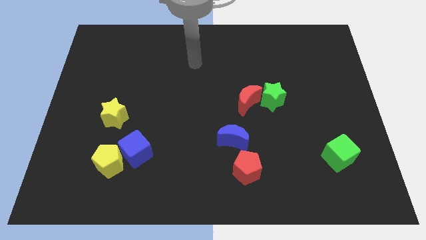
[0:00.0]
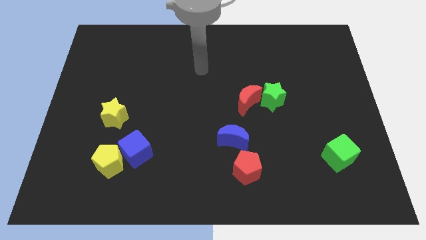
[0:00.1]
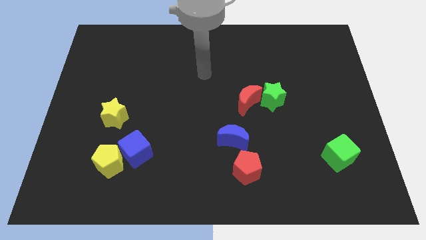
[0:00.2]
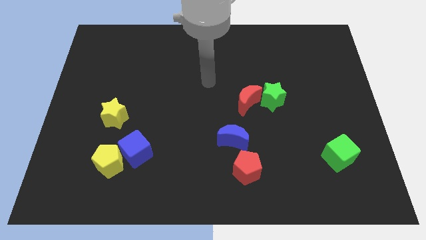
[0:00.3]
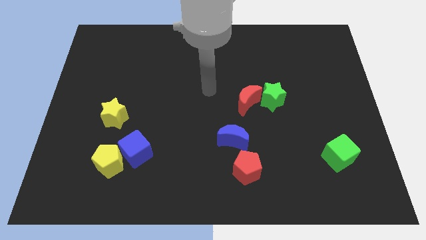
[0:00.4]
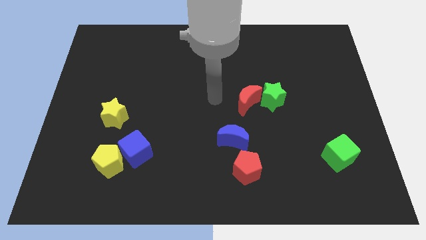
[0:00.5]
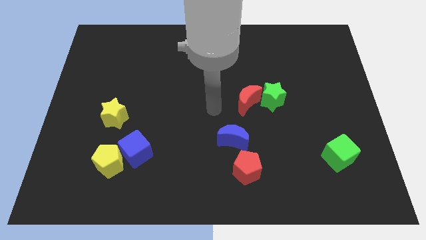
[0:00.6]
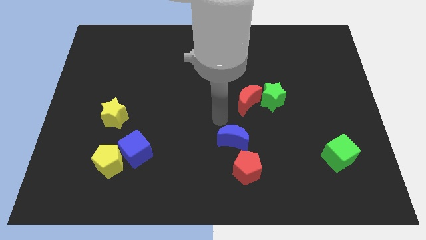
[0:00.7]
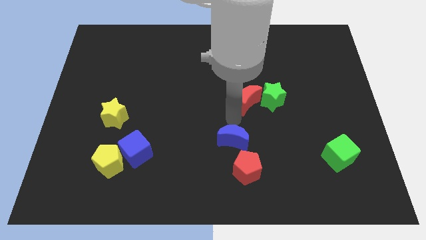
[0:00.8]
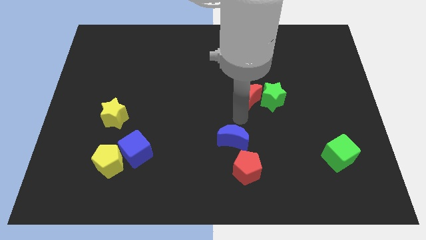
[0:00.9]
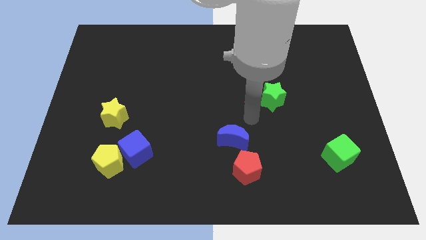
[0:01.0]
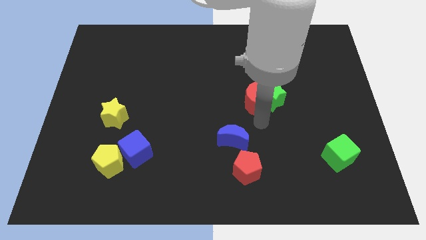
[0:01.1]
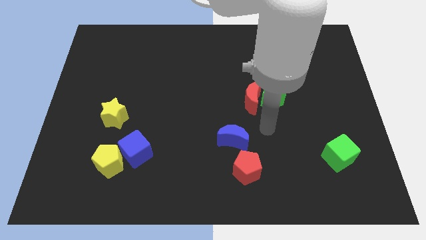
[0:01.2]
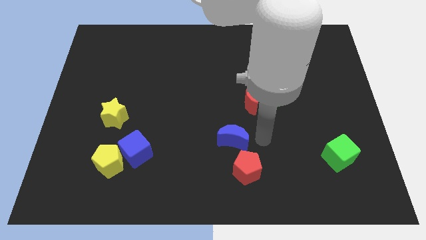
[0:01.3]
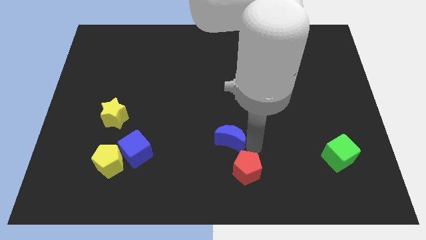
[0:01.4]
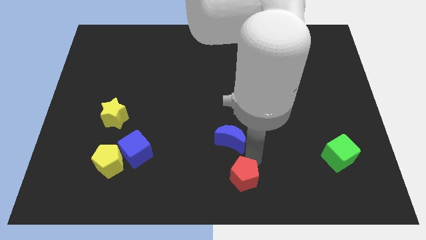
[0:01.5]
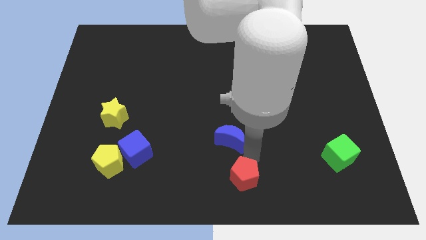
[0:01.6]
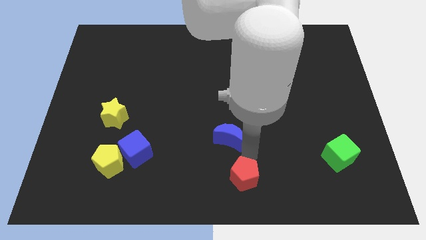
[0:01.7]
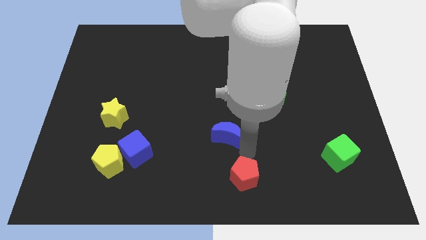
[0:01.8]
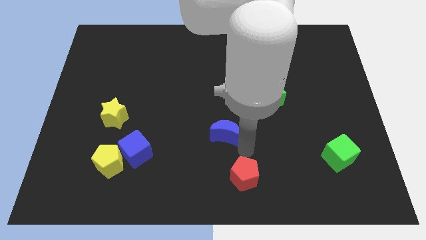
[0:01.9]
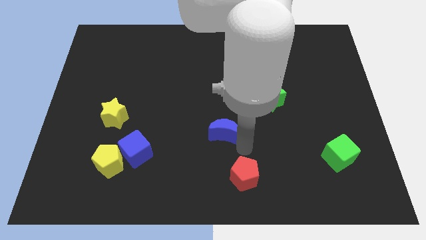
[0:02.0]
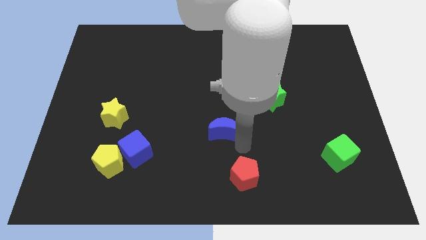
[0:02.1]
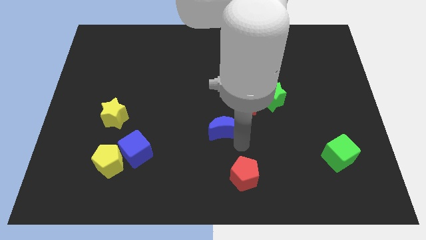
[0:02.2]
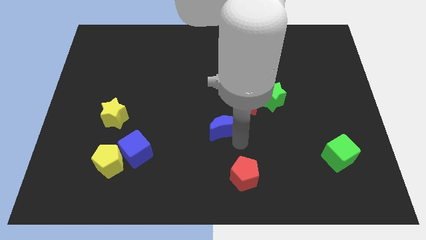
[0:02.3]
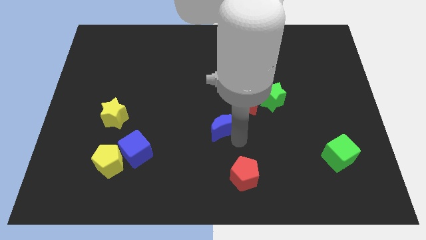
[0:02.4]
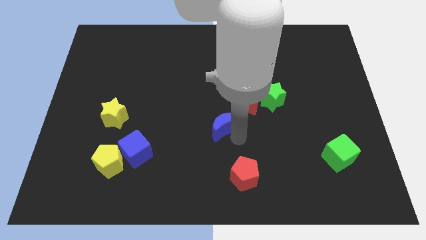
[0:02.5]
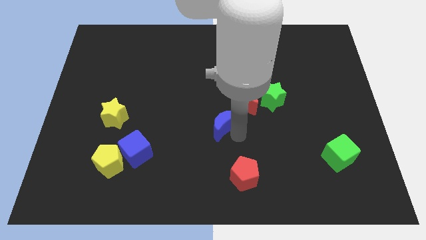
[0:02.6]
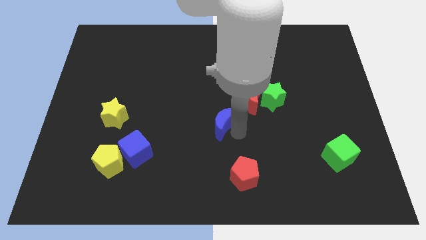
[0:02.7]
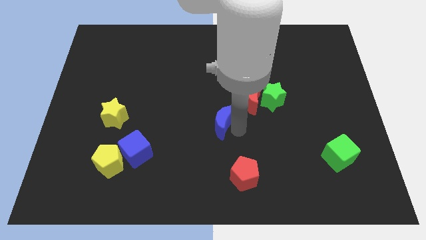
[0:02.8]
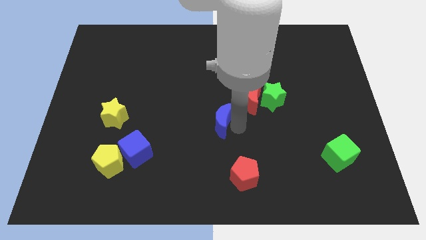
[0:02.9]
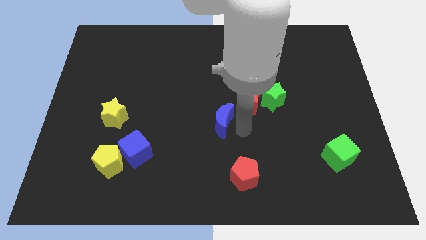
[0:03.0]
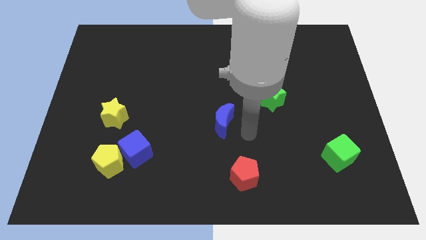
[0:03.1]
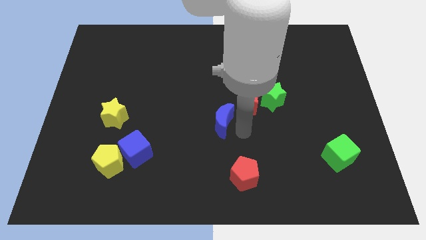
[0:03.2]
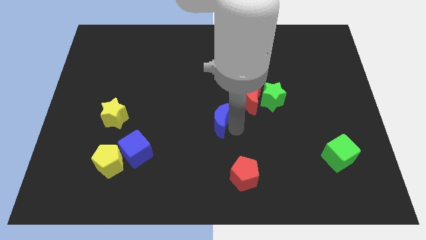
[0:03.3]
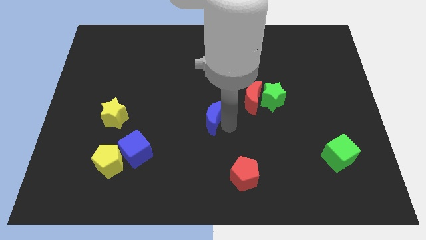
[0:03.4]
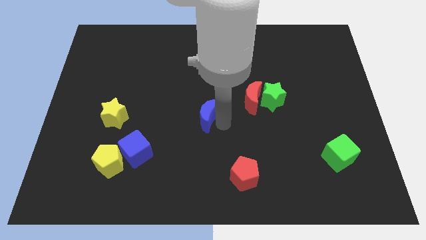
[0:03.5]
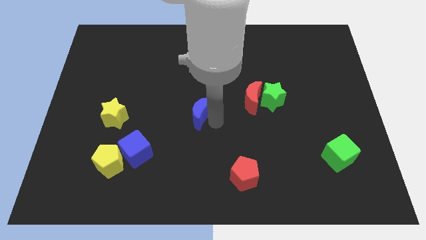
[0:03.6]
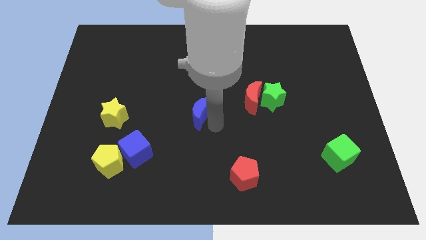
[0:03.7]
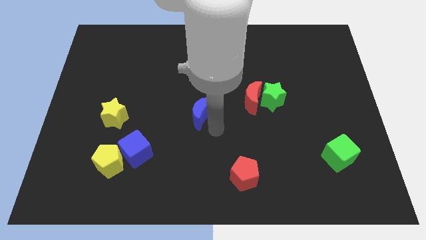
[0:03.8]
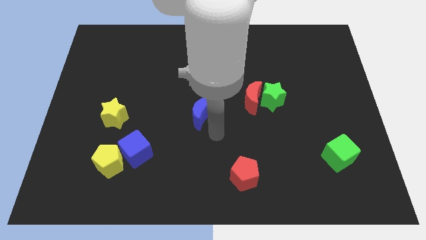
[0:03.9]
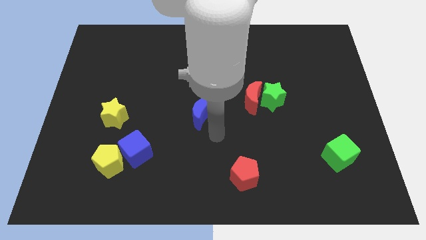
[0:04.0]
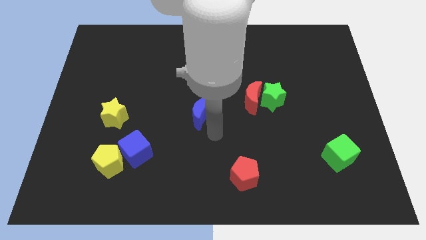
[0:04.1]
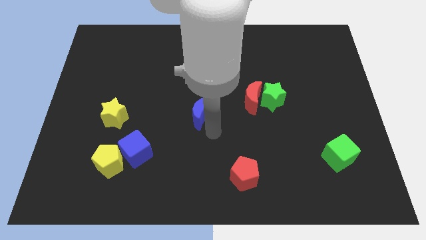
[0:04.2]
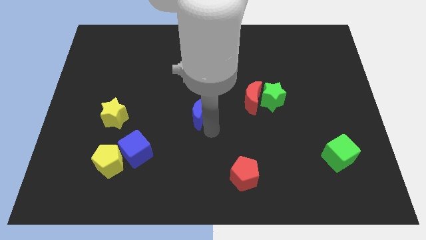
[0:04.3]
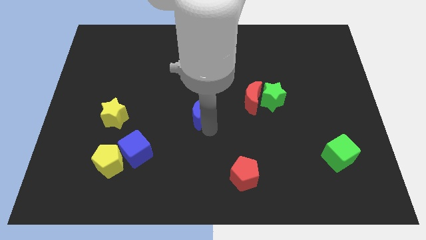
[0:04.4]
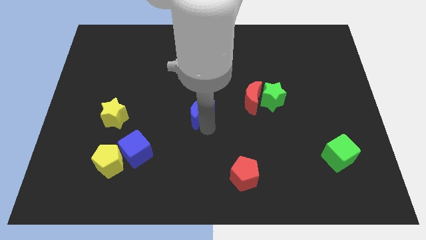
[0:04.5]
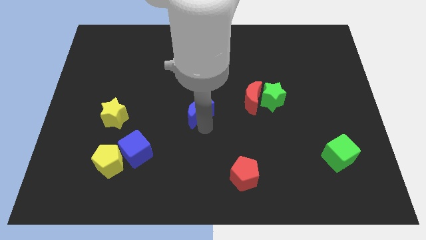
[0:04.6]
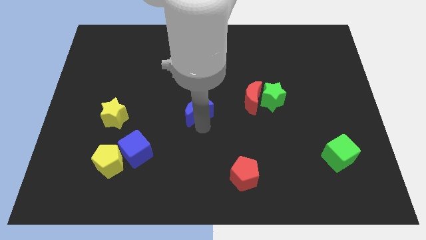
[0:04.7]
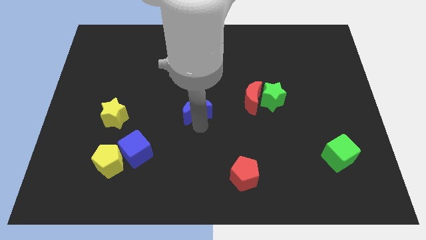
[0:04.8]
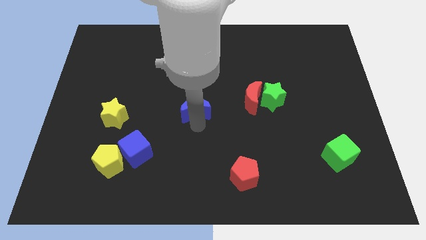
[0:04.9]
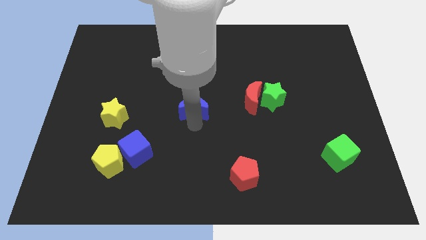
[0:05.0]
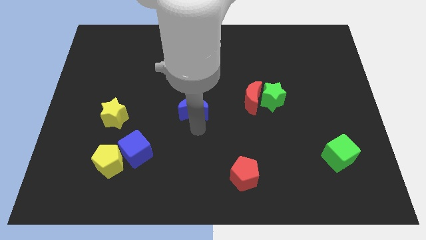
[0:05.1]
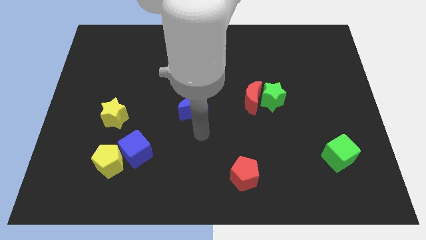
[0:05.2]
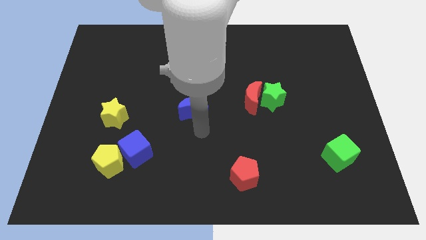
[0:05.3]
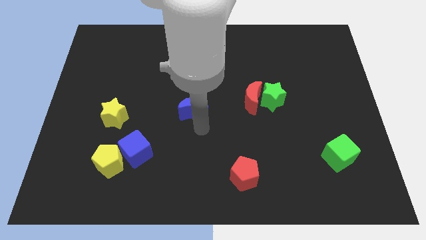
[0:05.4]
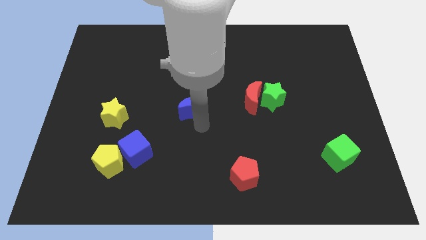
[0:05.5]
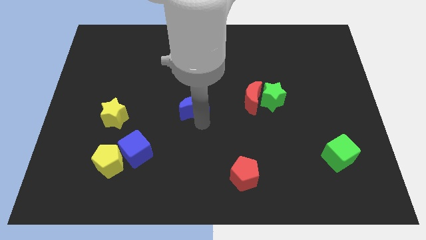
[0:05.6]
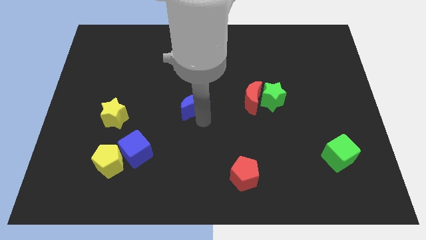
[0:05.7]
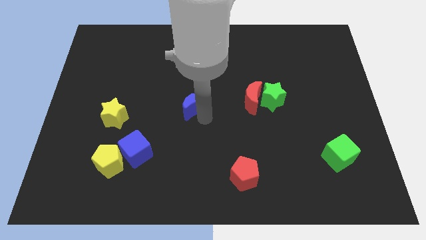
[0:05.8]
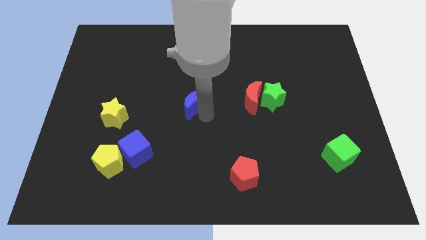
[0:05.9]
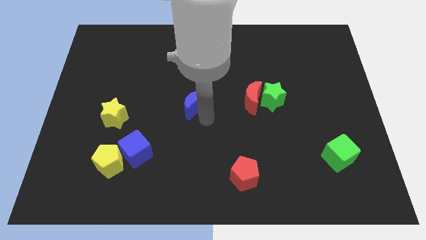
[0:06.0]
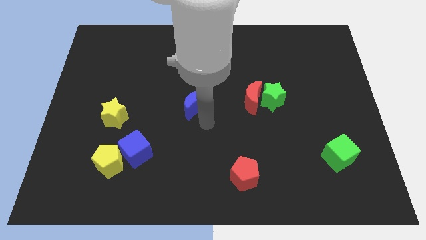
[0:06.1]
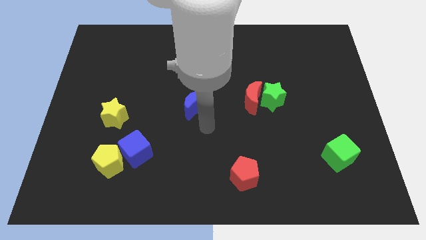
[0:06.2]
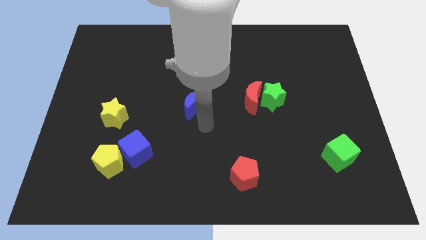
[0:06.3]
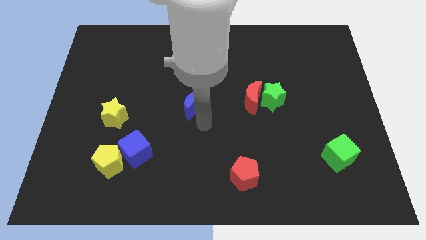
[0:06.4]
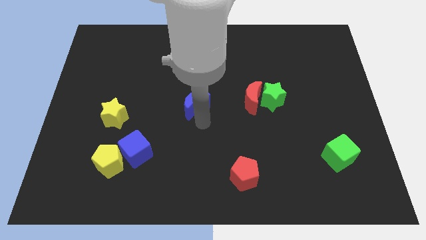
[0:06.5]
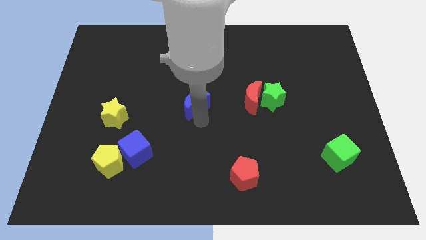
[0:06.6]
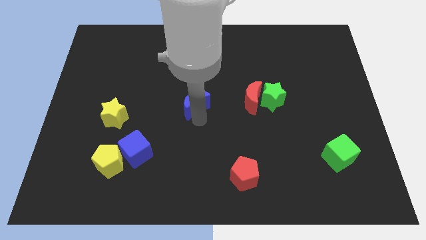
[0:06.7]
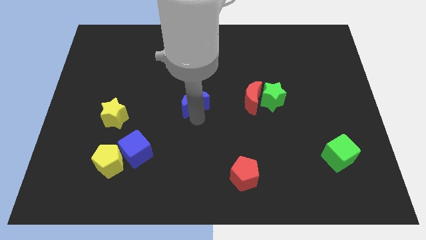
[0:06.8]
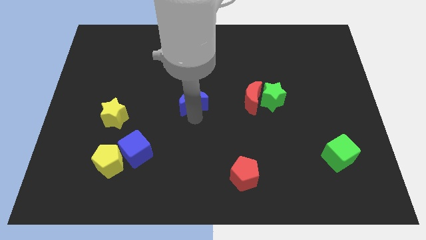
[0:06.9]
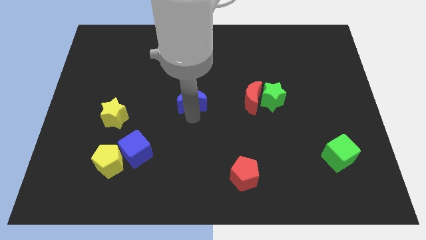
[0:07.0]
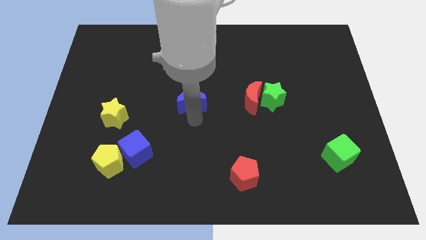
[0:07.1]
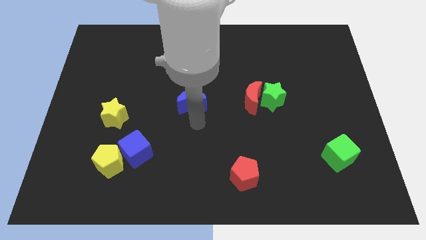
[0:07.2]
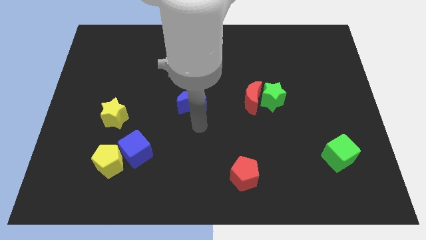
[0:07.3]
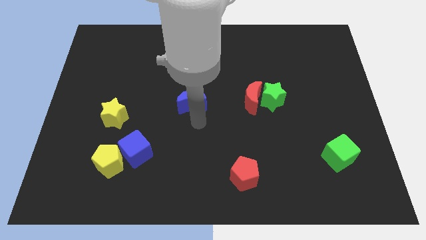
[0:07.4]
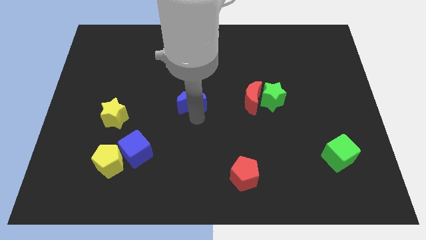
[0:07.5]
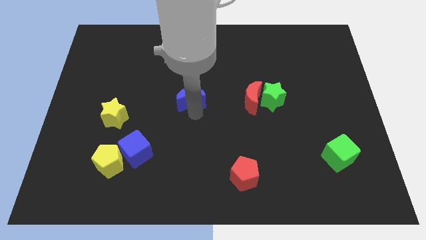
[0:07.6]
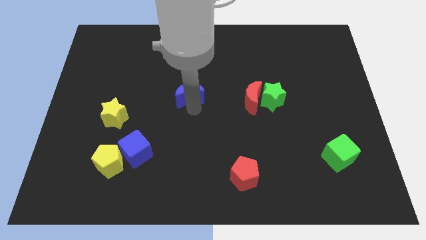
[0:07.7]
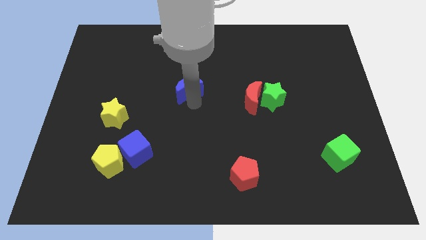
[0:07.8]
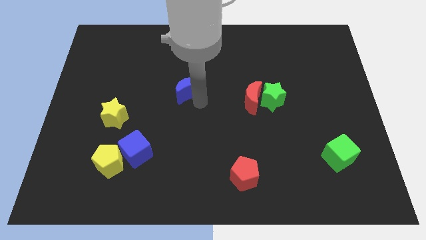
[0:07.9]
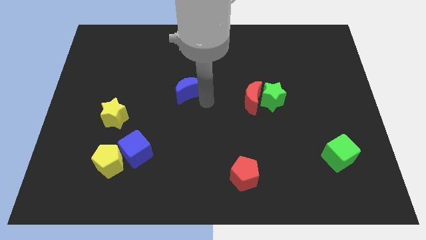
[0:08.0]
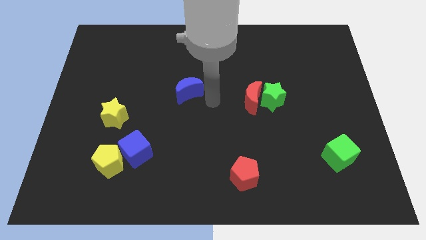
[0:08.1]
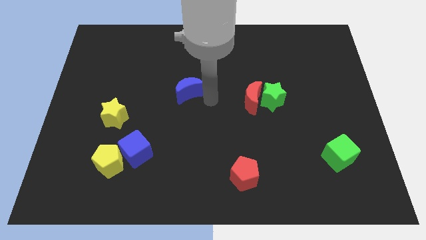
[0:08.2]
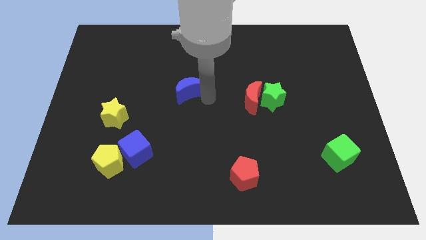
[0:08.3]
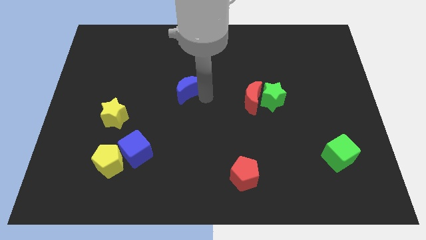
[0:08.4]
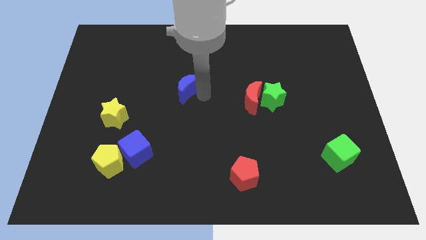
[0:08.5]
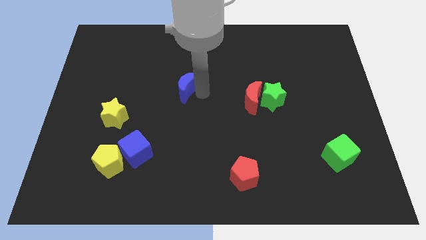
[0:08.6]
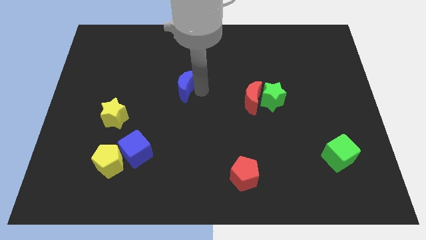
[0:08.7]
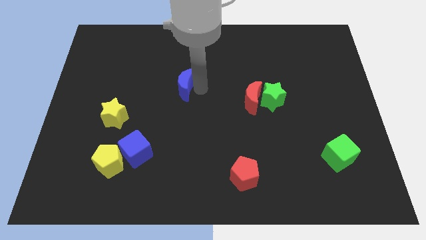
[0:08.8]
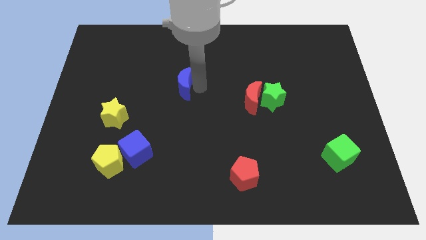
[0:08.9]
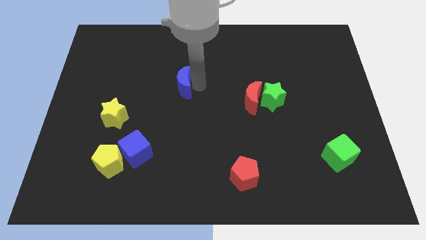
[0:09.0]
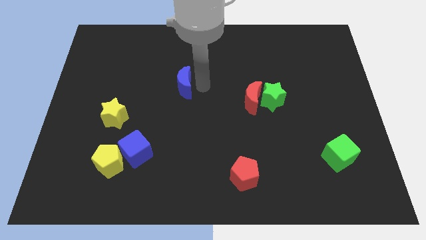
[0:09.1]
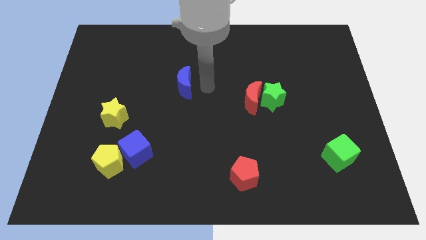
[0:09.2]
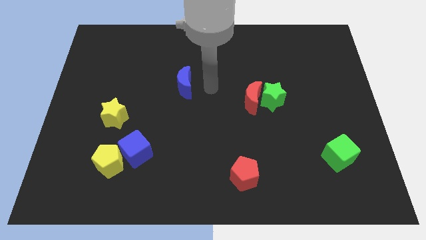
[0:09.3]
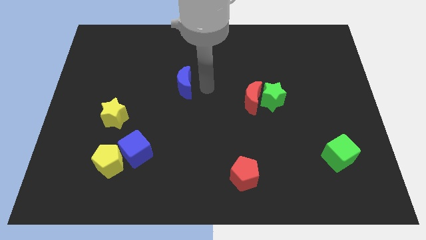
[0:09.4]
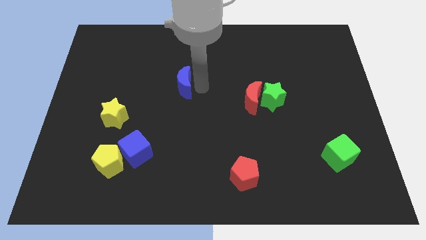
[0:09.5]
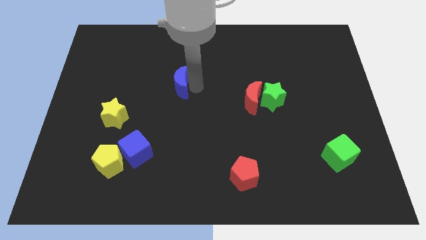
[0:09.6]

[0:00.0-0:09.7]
move the blue moon diagonally upwards and to the left
